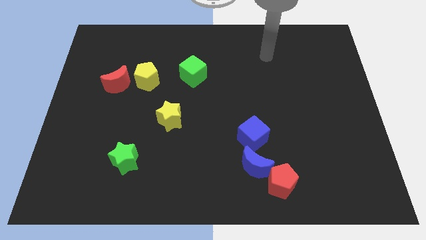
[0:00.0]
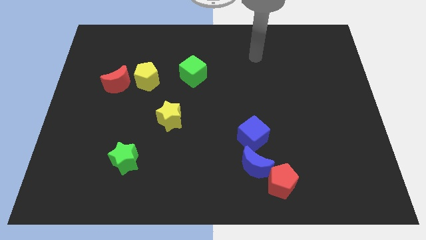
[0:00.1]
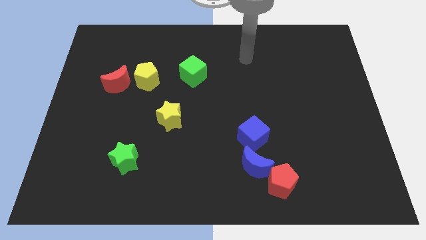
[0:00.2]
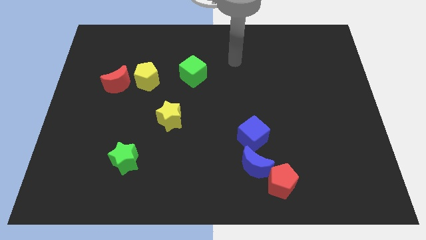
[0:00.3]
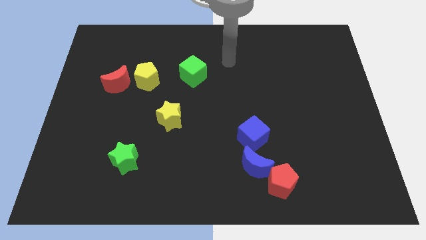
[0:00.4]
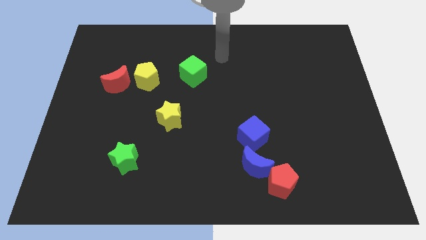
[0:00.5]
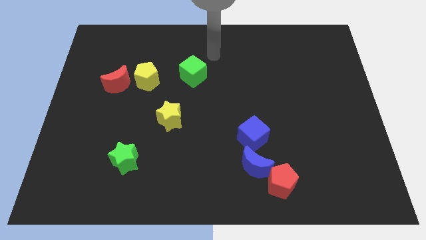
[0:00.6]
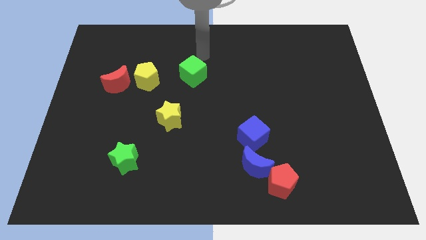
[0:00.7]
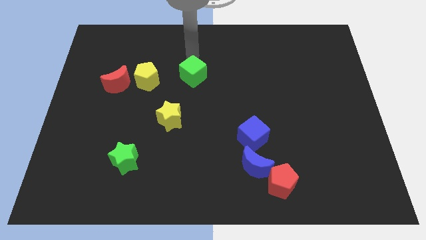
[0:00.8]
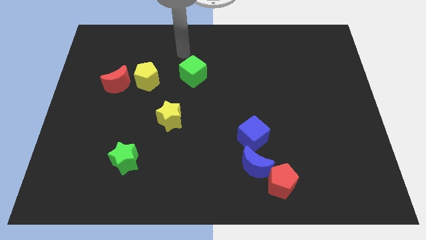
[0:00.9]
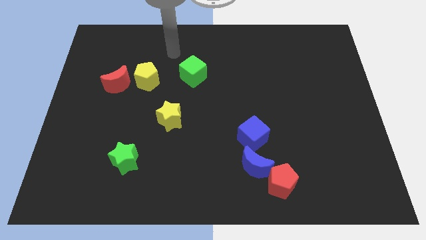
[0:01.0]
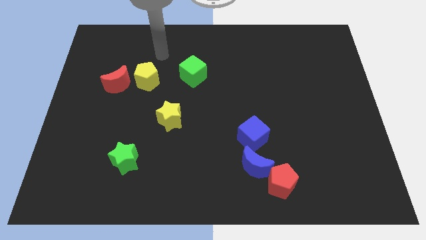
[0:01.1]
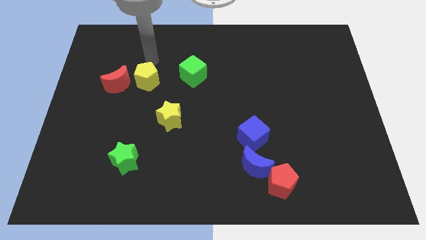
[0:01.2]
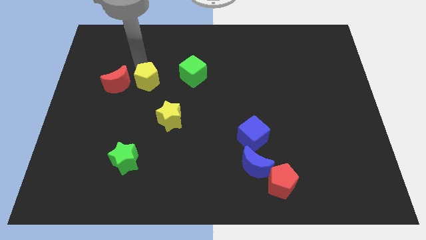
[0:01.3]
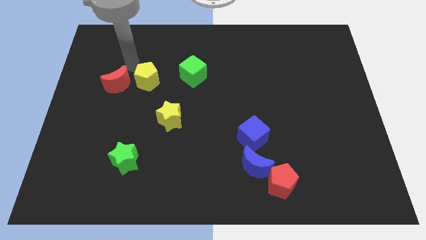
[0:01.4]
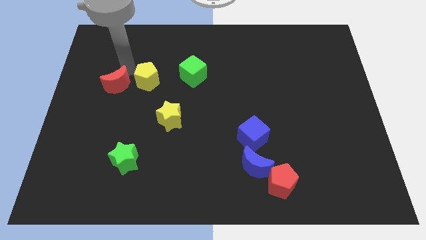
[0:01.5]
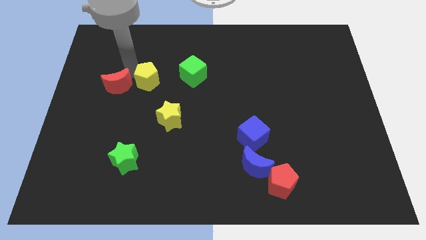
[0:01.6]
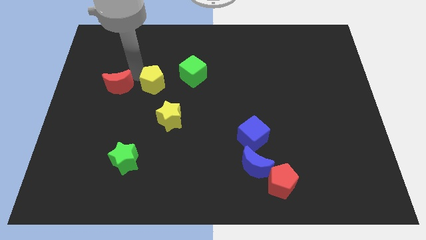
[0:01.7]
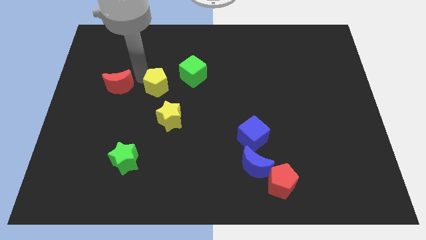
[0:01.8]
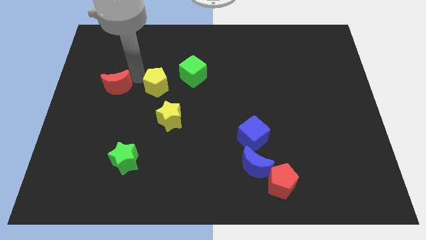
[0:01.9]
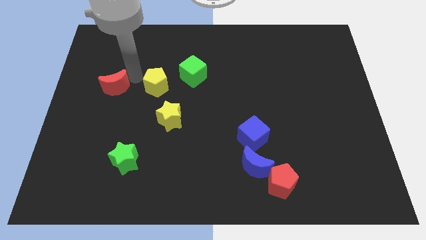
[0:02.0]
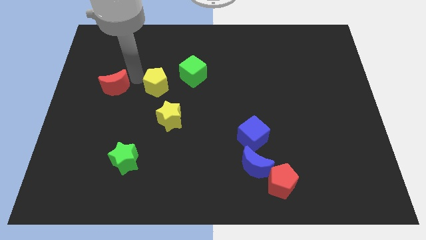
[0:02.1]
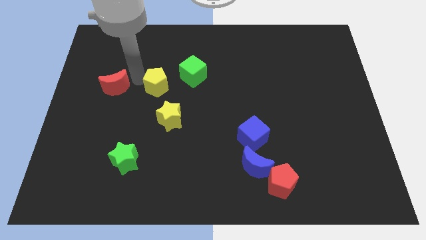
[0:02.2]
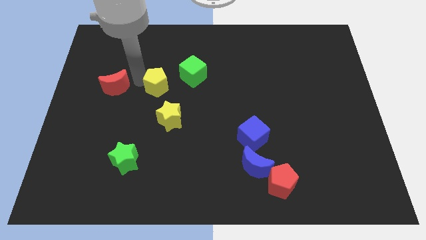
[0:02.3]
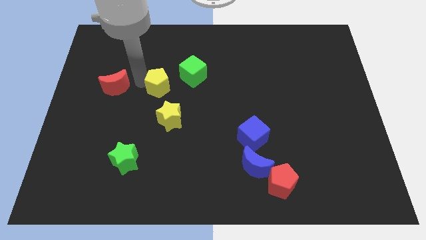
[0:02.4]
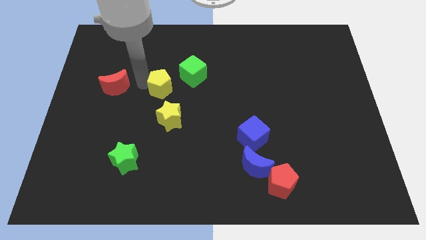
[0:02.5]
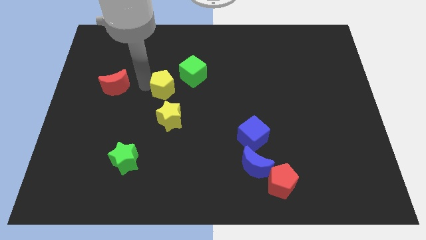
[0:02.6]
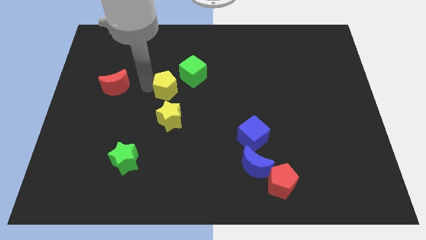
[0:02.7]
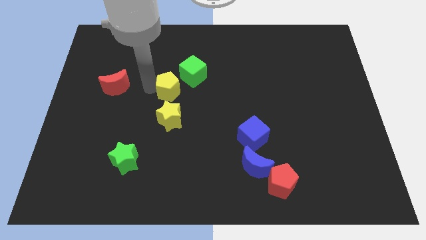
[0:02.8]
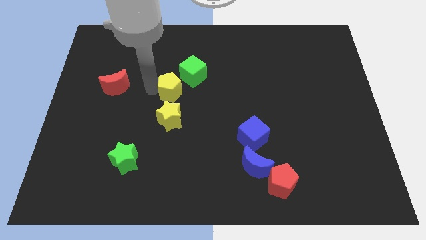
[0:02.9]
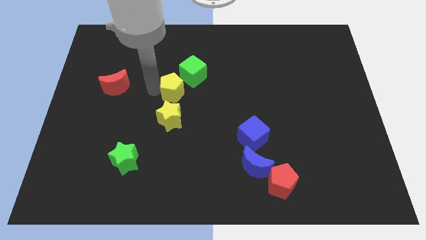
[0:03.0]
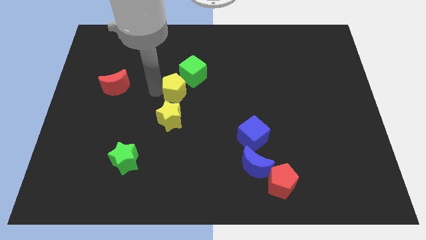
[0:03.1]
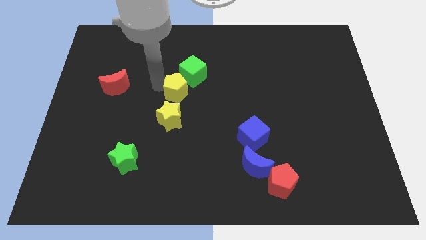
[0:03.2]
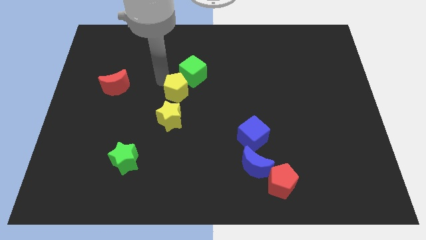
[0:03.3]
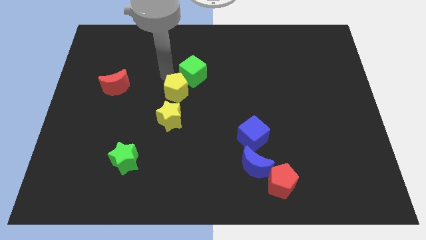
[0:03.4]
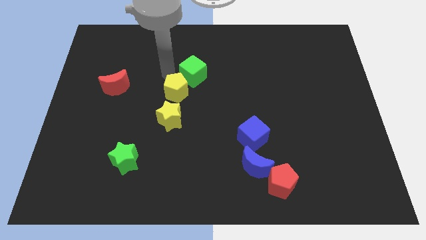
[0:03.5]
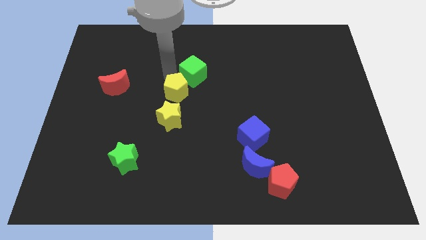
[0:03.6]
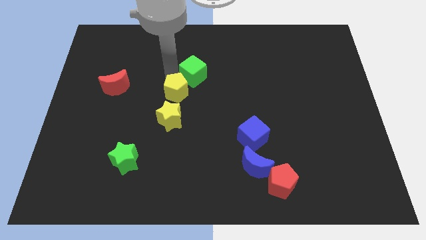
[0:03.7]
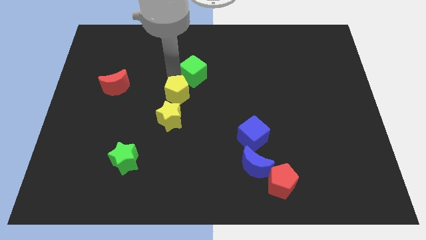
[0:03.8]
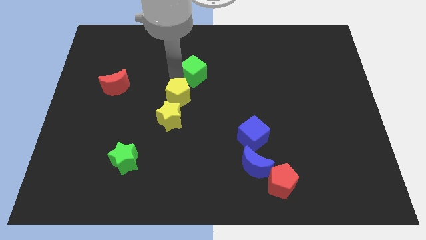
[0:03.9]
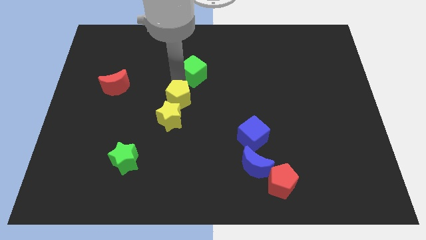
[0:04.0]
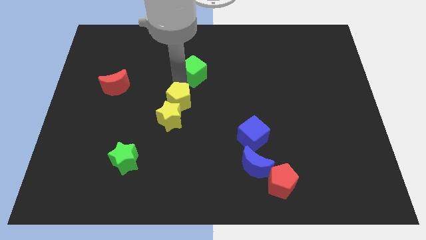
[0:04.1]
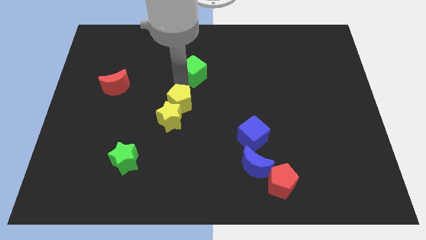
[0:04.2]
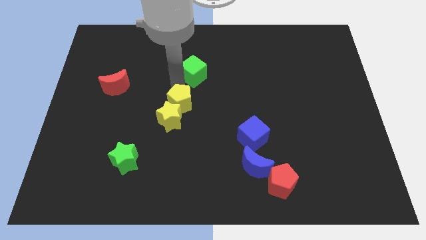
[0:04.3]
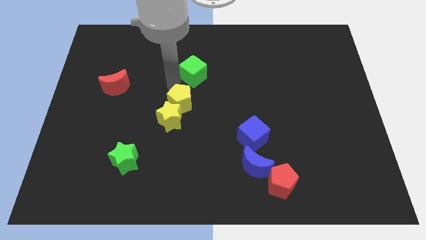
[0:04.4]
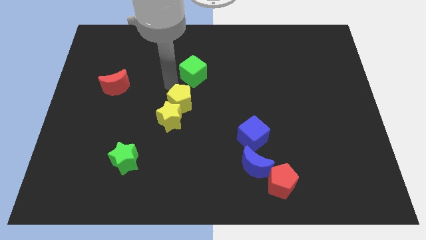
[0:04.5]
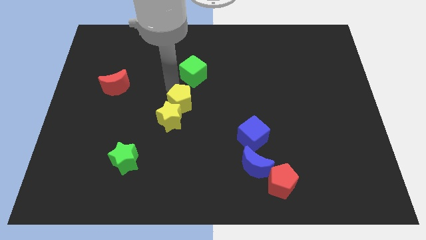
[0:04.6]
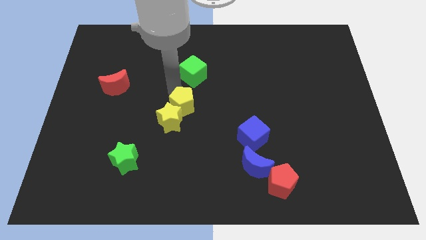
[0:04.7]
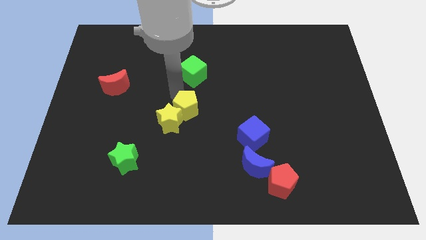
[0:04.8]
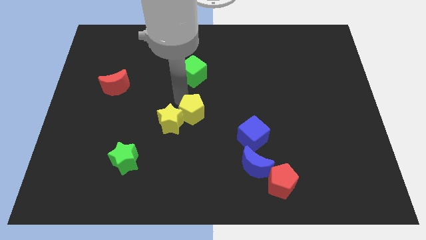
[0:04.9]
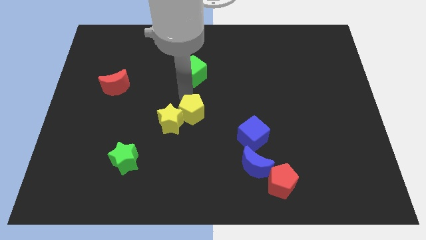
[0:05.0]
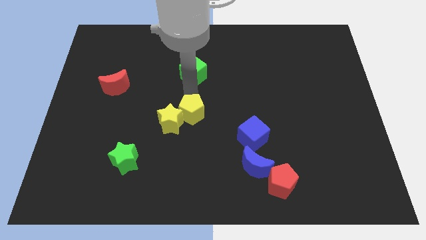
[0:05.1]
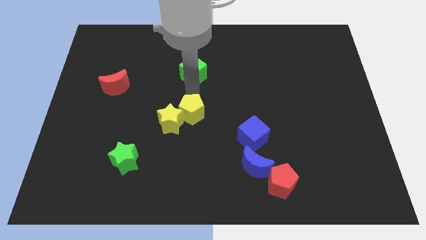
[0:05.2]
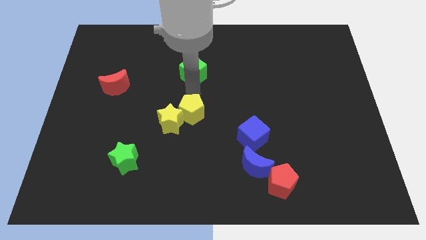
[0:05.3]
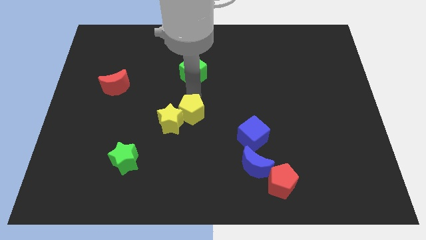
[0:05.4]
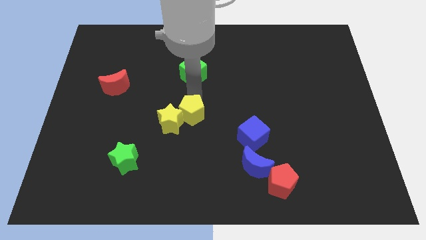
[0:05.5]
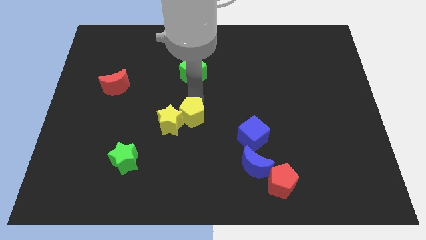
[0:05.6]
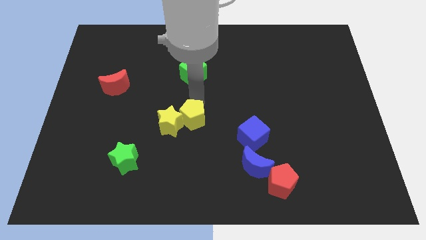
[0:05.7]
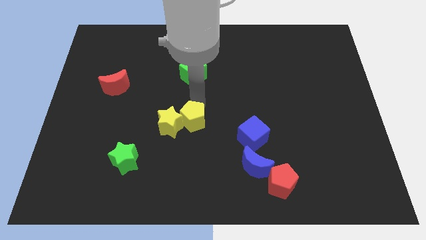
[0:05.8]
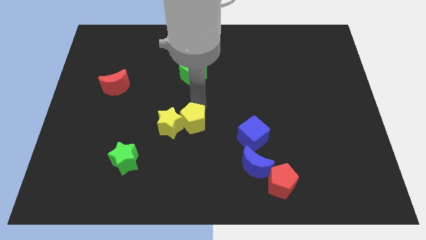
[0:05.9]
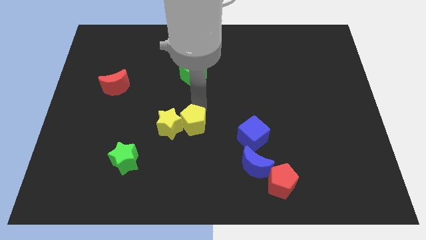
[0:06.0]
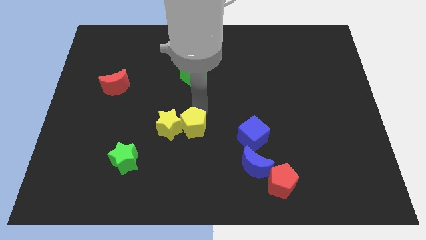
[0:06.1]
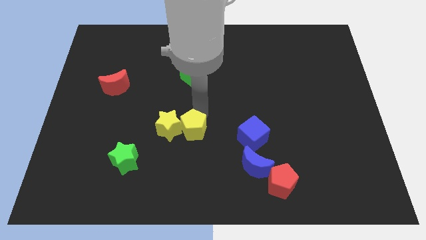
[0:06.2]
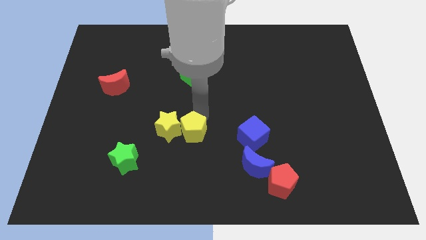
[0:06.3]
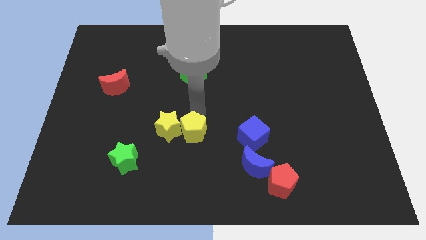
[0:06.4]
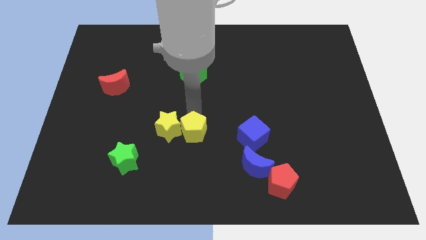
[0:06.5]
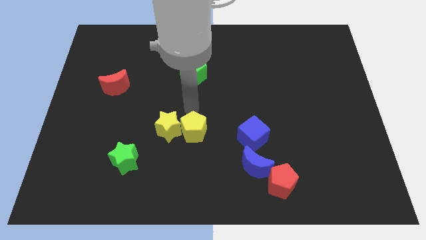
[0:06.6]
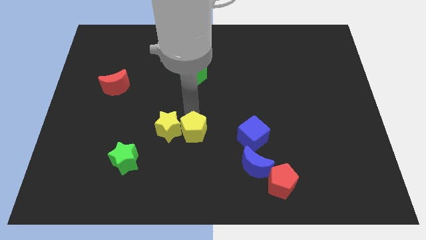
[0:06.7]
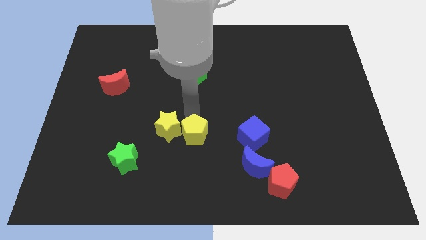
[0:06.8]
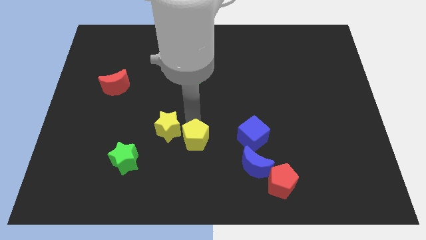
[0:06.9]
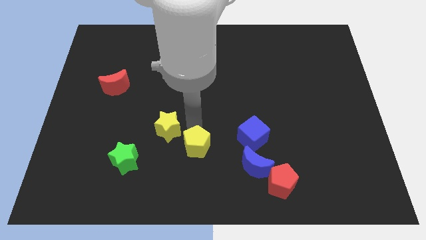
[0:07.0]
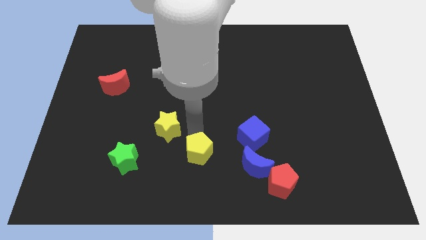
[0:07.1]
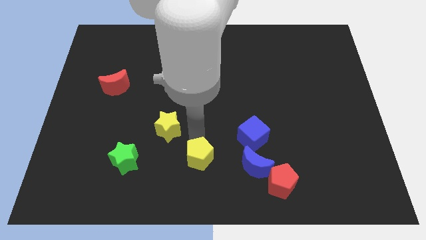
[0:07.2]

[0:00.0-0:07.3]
slide the yellow pentagon to the bottom
